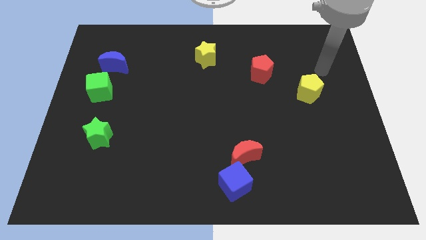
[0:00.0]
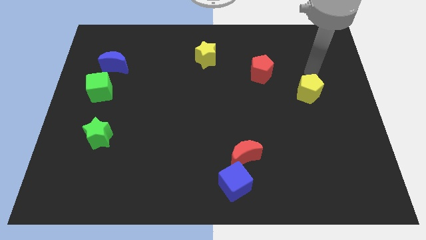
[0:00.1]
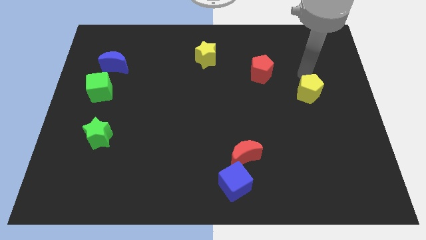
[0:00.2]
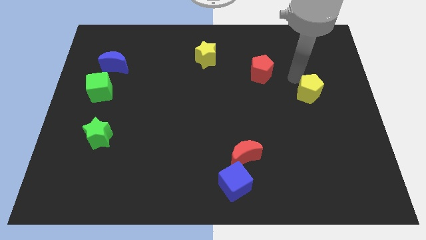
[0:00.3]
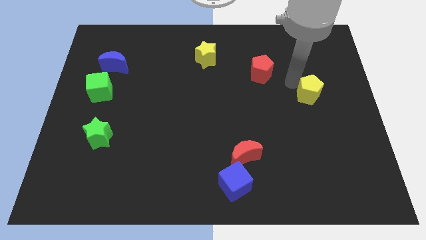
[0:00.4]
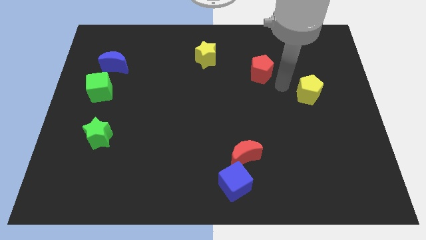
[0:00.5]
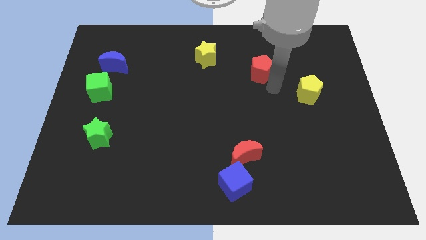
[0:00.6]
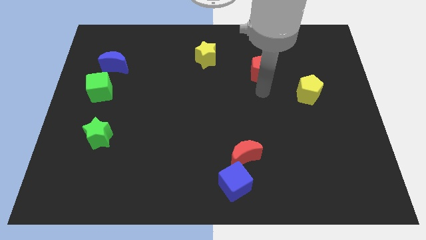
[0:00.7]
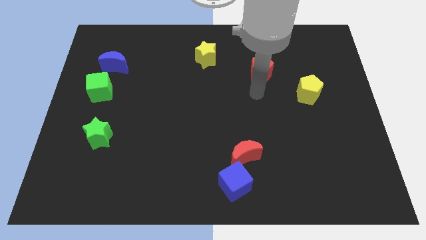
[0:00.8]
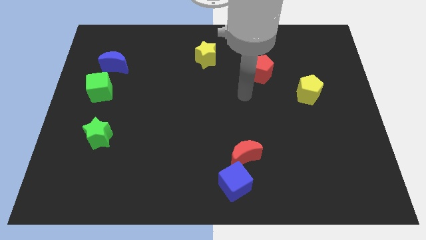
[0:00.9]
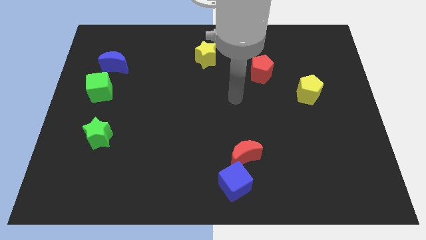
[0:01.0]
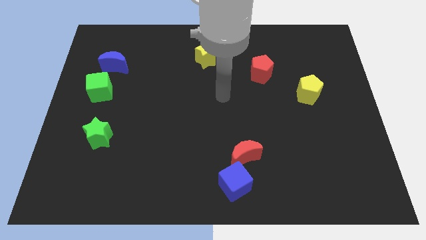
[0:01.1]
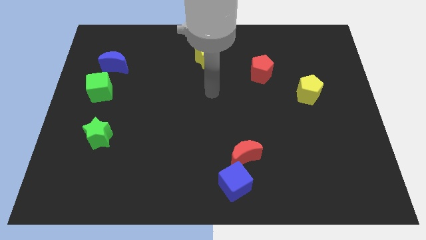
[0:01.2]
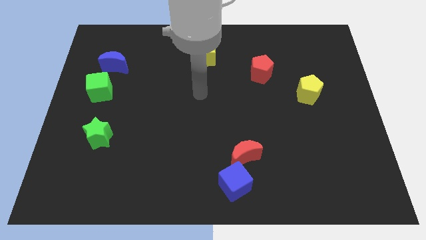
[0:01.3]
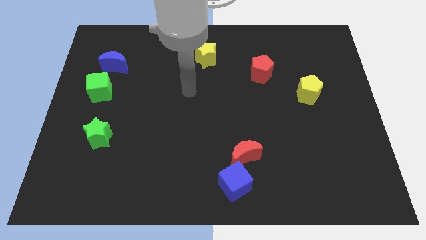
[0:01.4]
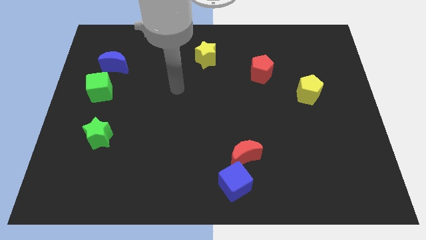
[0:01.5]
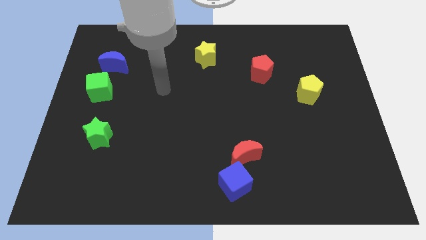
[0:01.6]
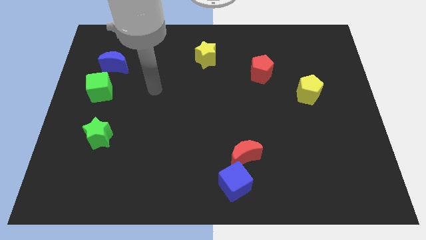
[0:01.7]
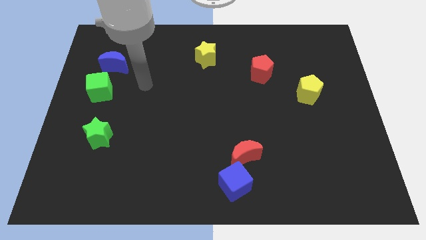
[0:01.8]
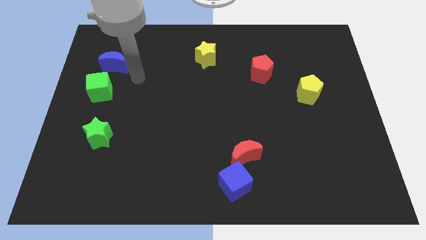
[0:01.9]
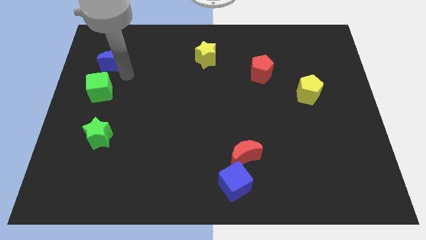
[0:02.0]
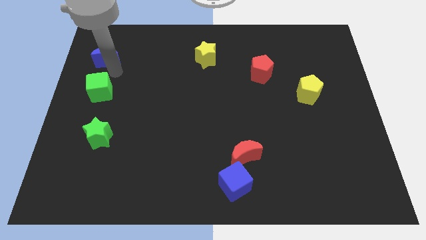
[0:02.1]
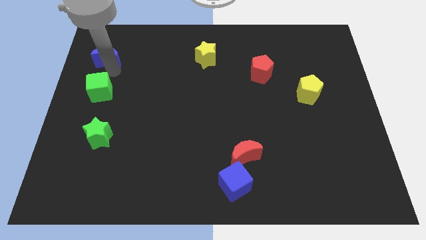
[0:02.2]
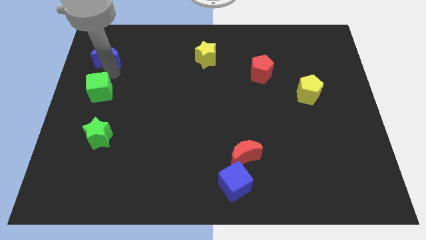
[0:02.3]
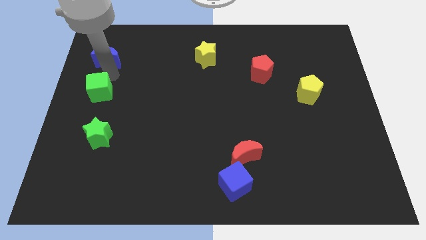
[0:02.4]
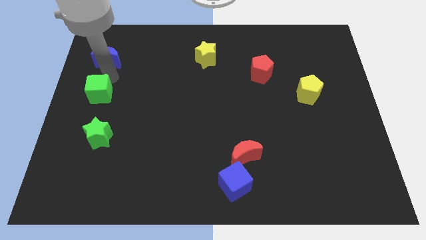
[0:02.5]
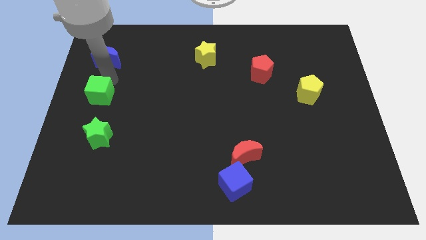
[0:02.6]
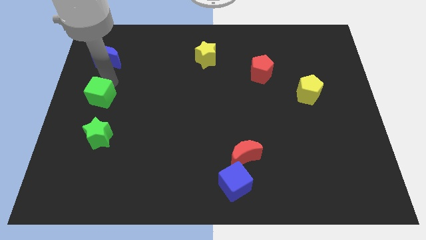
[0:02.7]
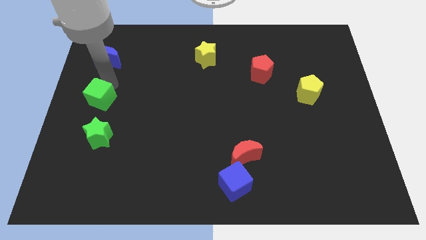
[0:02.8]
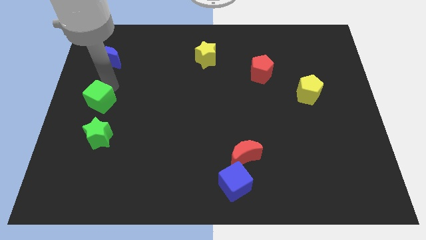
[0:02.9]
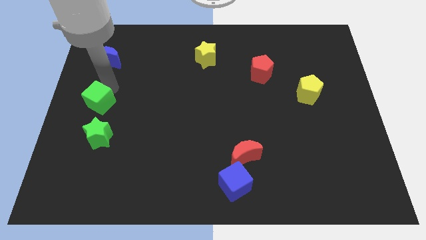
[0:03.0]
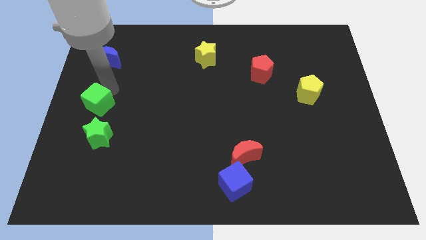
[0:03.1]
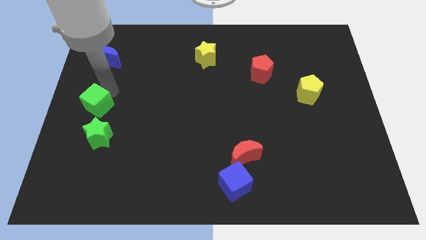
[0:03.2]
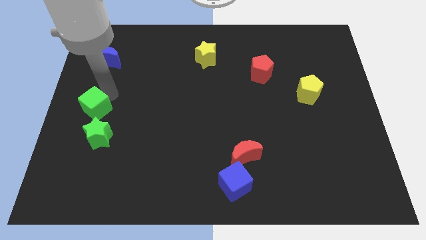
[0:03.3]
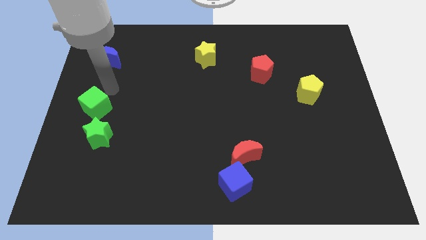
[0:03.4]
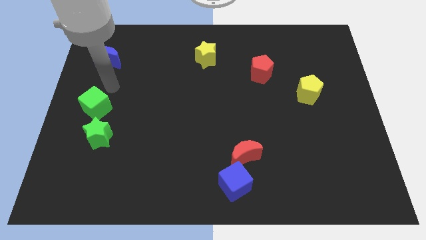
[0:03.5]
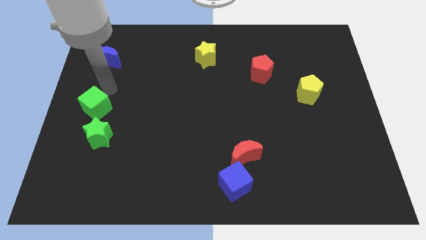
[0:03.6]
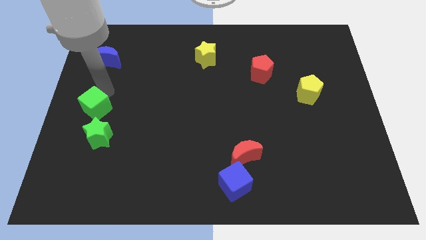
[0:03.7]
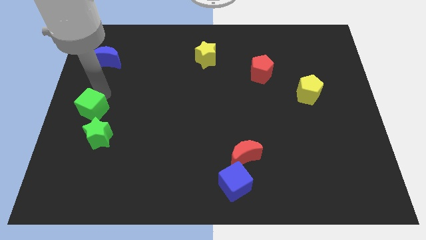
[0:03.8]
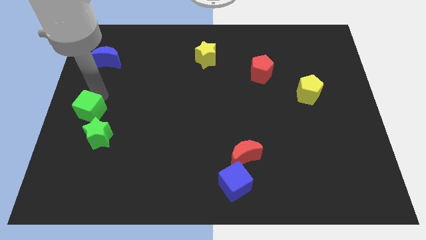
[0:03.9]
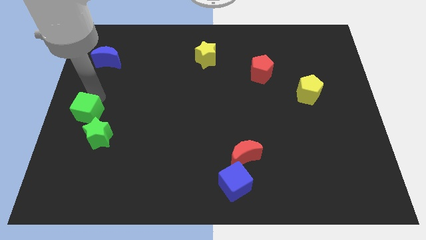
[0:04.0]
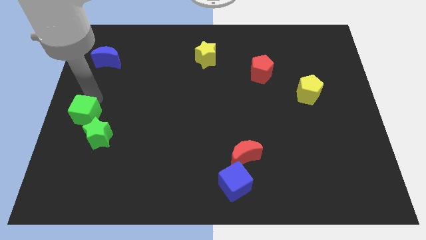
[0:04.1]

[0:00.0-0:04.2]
slide the green cube down somewhat

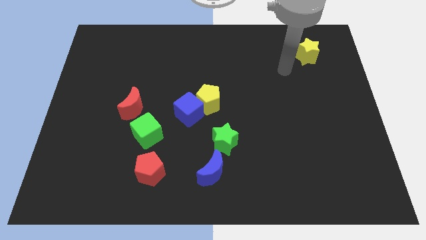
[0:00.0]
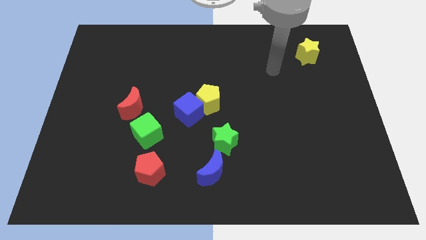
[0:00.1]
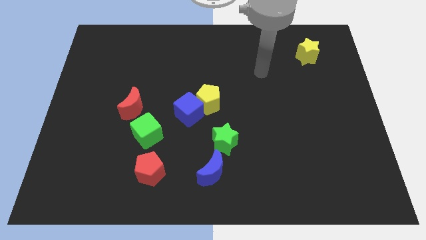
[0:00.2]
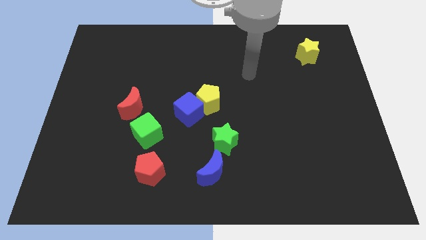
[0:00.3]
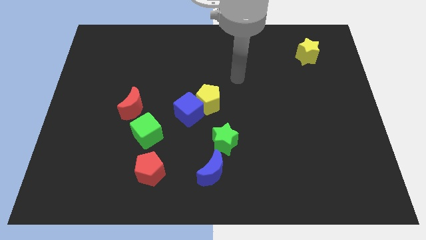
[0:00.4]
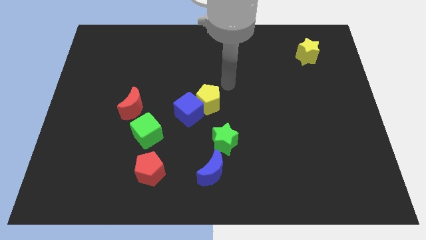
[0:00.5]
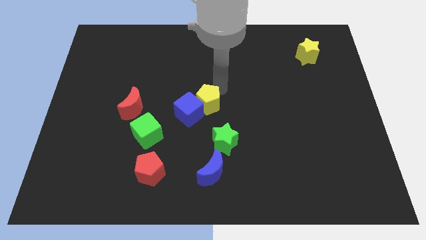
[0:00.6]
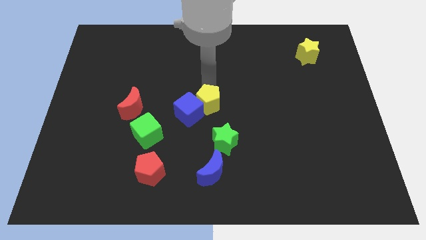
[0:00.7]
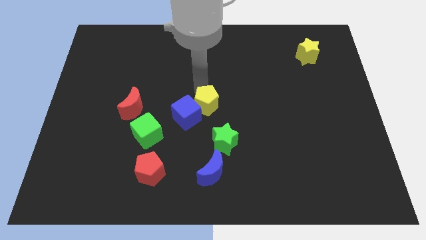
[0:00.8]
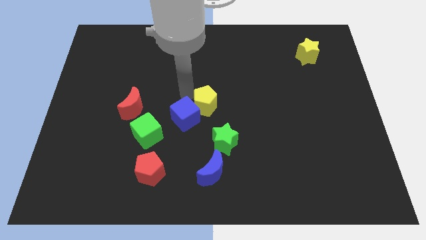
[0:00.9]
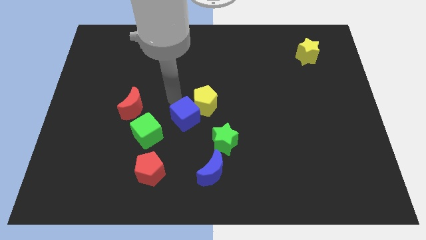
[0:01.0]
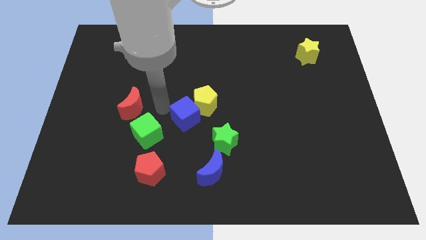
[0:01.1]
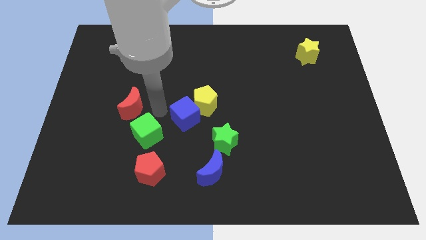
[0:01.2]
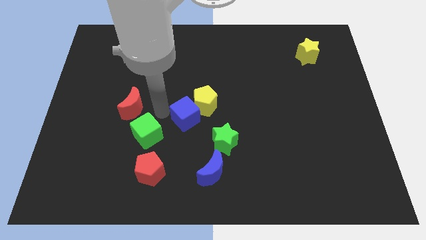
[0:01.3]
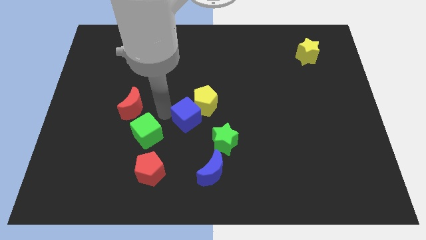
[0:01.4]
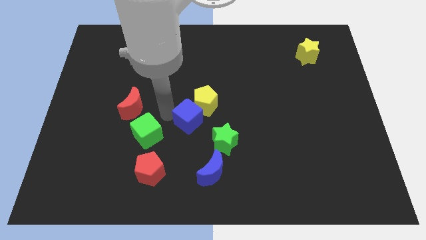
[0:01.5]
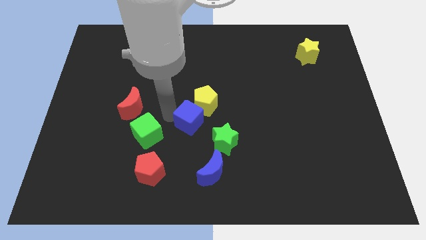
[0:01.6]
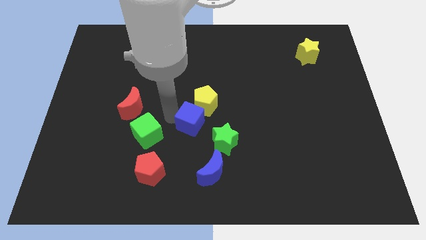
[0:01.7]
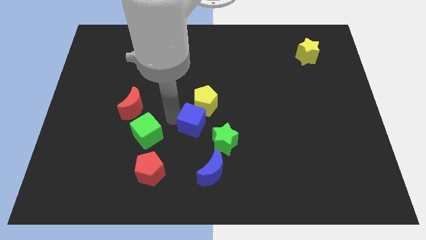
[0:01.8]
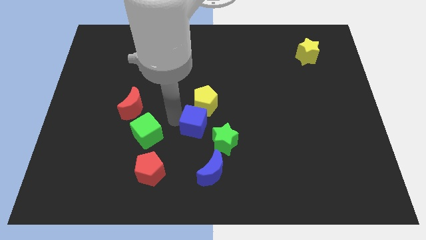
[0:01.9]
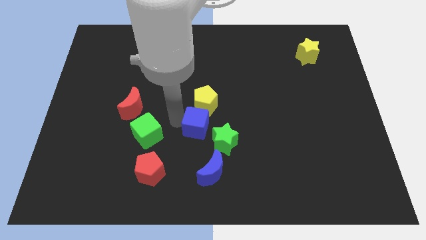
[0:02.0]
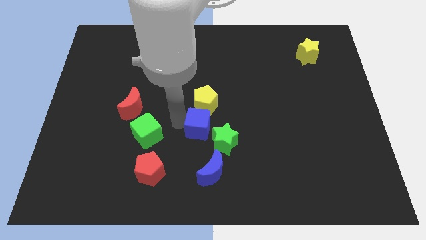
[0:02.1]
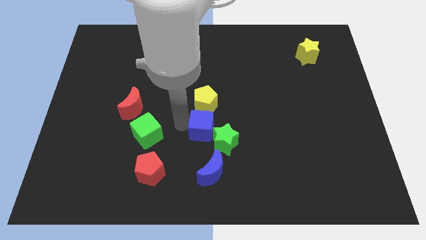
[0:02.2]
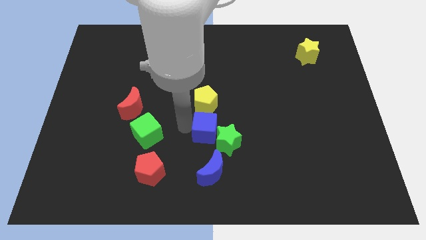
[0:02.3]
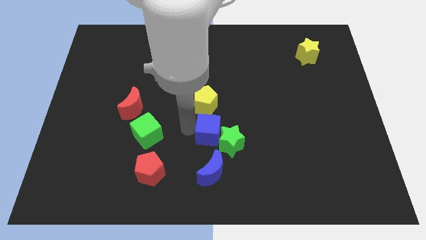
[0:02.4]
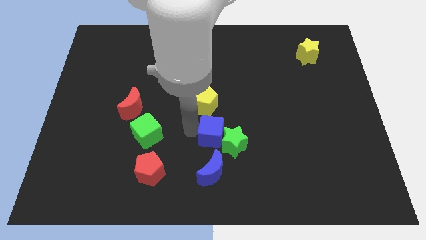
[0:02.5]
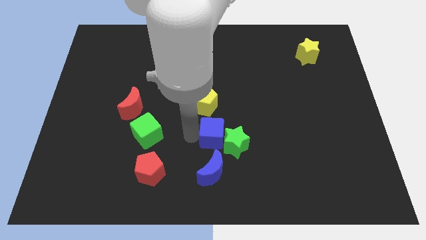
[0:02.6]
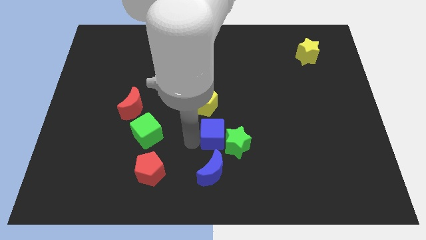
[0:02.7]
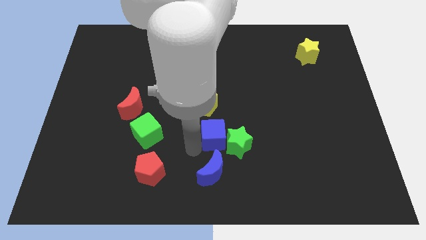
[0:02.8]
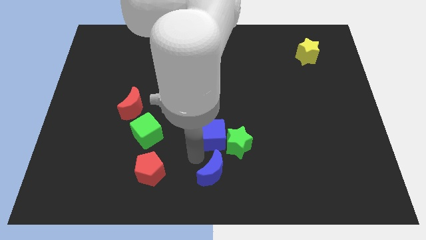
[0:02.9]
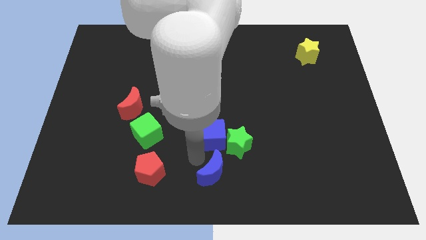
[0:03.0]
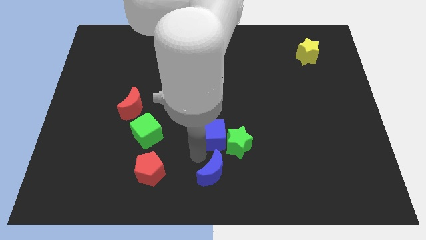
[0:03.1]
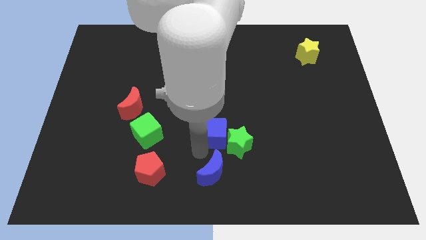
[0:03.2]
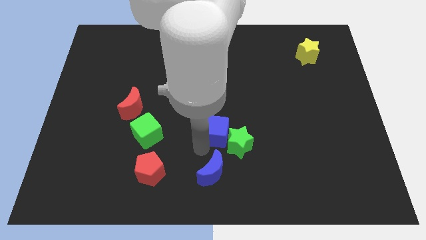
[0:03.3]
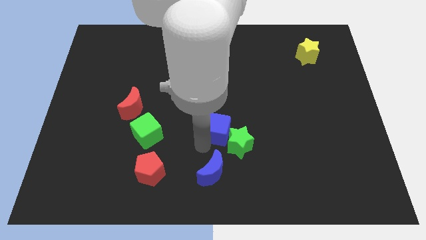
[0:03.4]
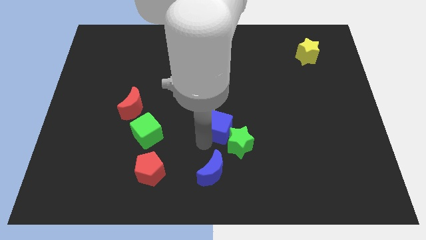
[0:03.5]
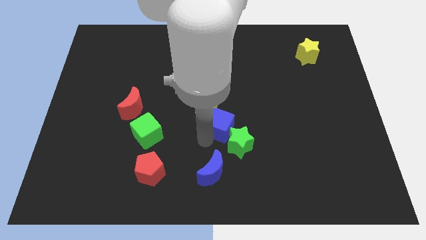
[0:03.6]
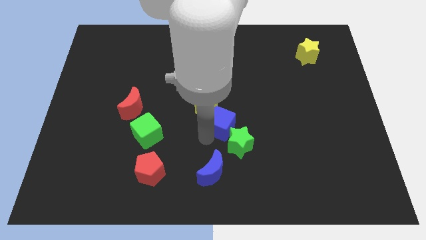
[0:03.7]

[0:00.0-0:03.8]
move the blue cube to the right a little bit
